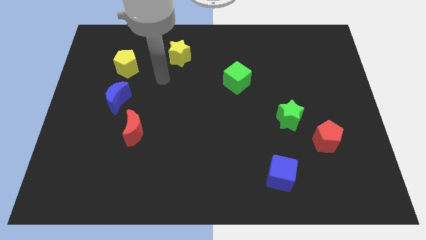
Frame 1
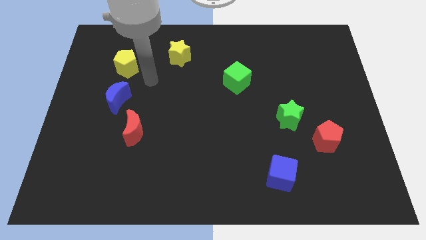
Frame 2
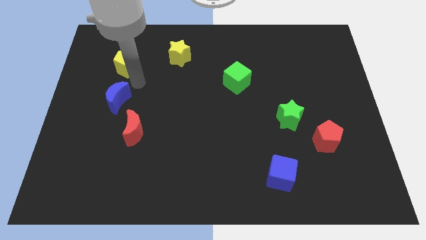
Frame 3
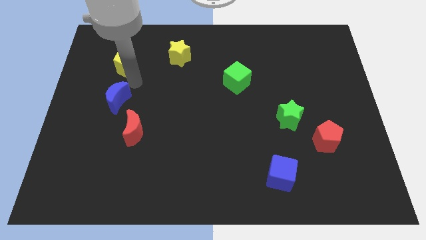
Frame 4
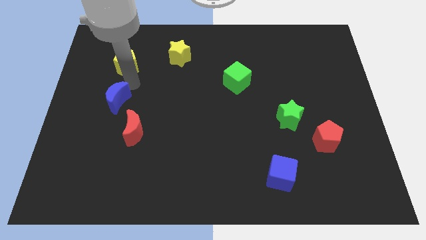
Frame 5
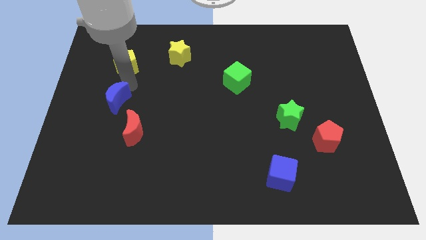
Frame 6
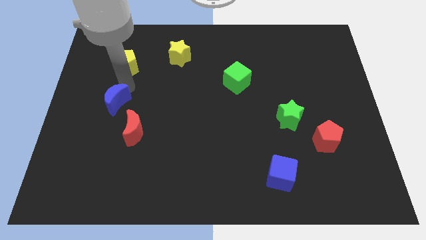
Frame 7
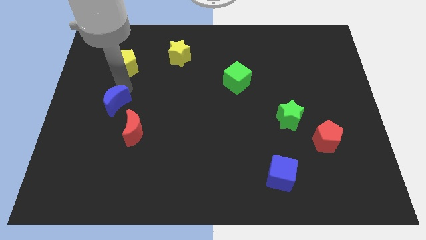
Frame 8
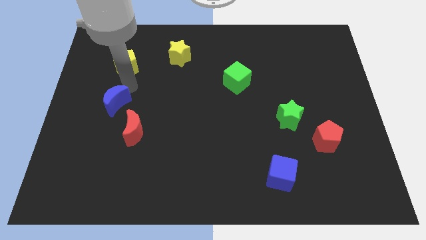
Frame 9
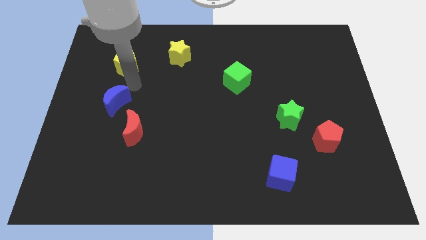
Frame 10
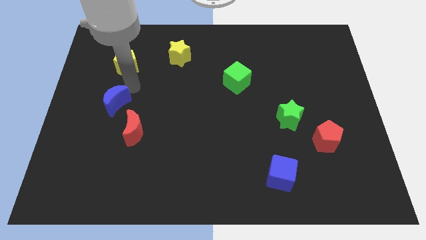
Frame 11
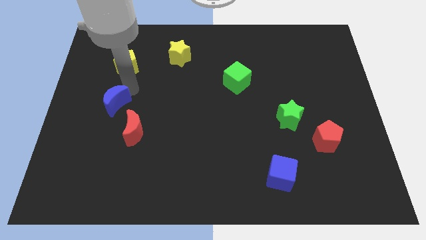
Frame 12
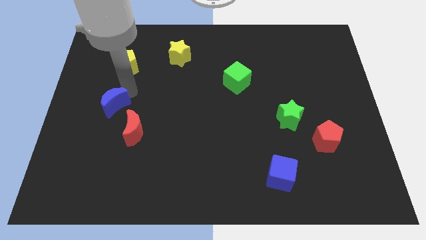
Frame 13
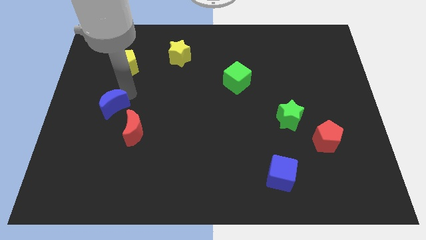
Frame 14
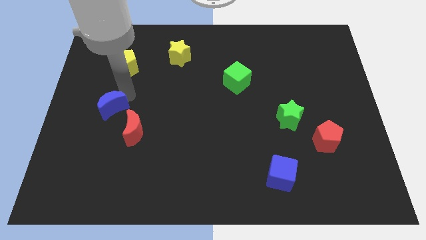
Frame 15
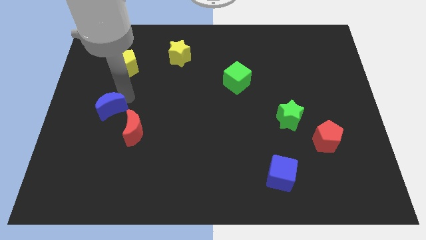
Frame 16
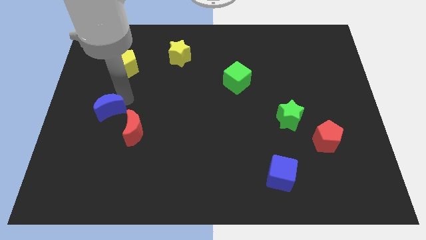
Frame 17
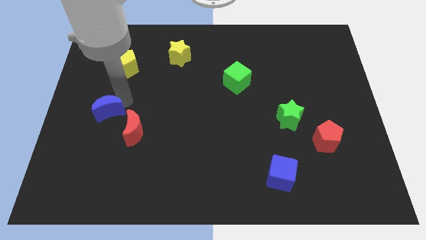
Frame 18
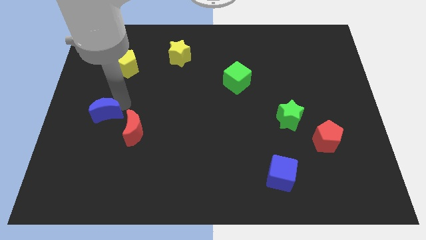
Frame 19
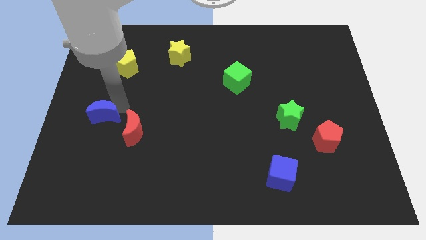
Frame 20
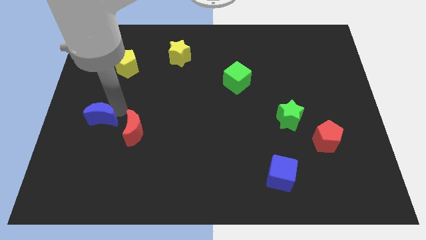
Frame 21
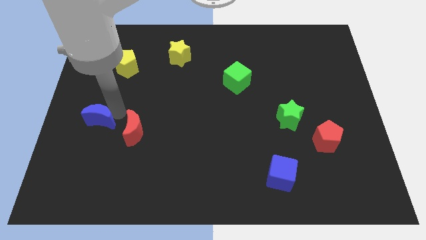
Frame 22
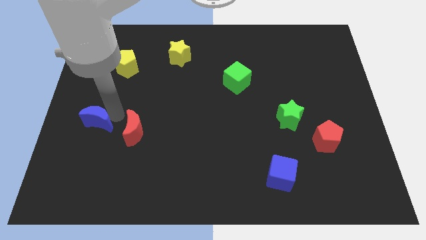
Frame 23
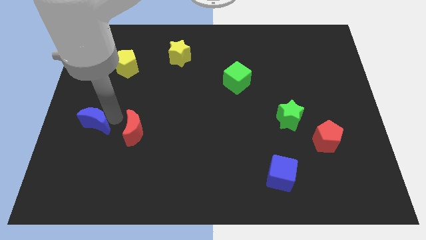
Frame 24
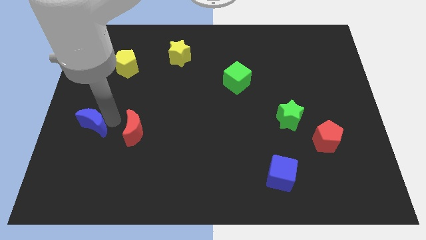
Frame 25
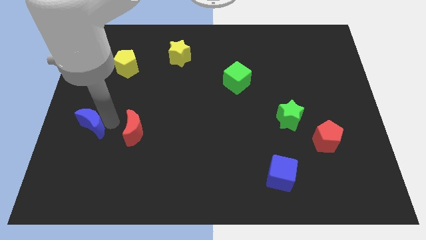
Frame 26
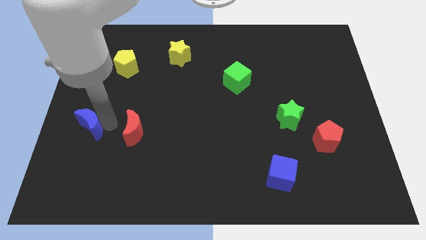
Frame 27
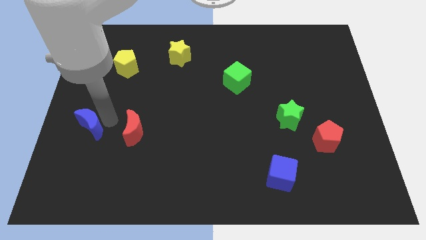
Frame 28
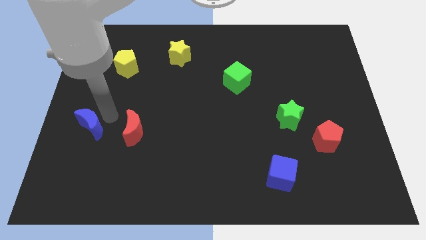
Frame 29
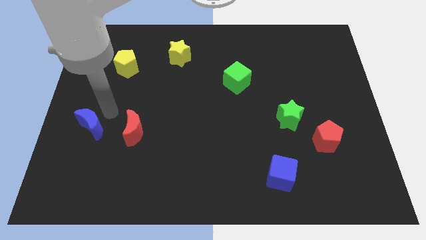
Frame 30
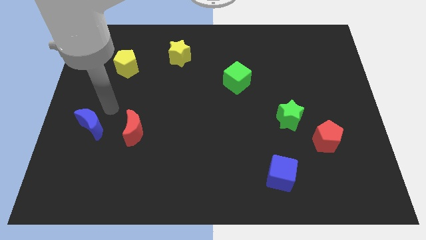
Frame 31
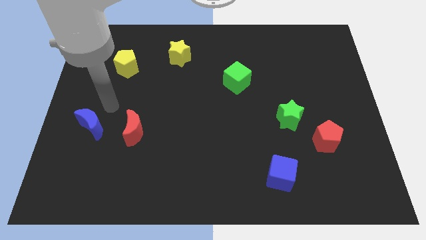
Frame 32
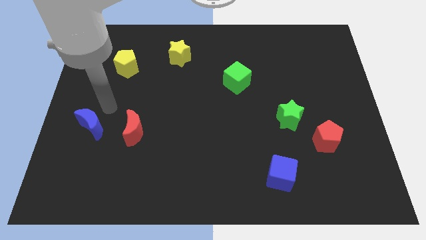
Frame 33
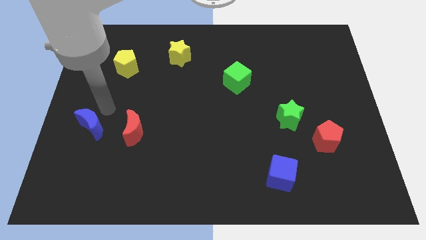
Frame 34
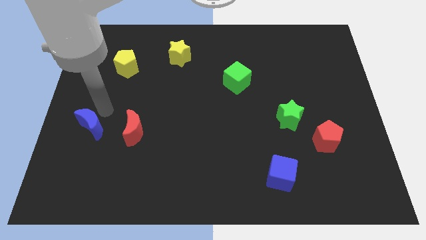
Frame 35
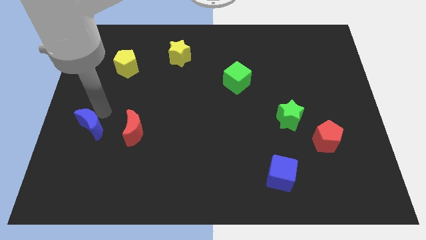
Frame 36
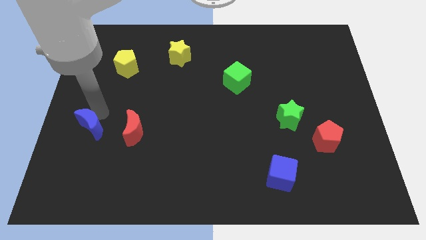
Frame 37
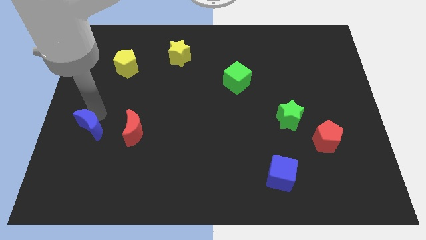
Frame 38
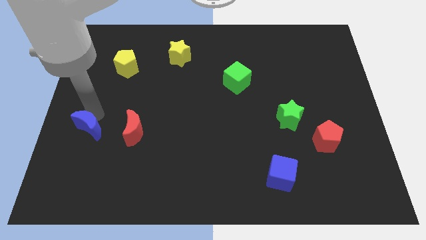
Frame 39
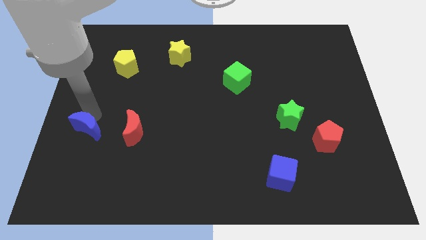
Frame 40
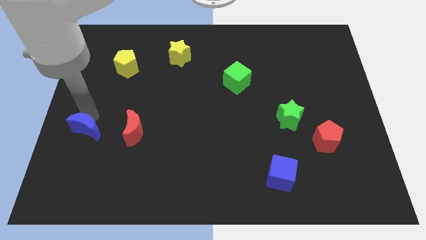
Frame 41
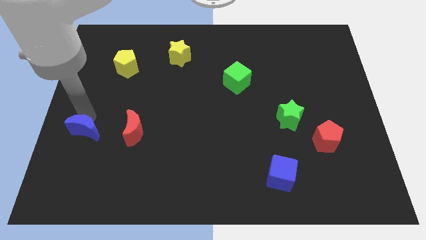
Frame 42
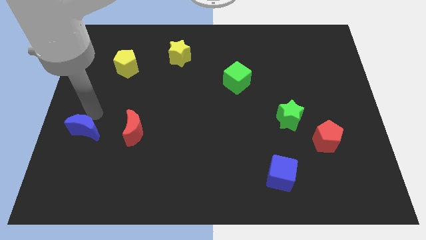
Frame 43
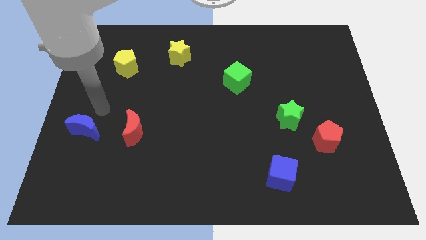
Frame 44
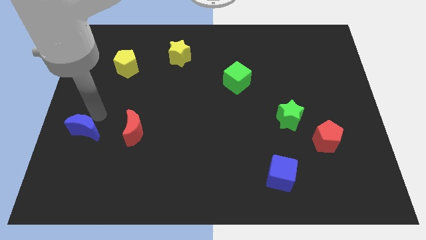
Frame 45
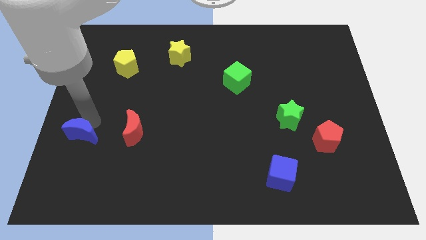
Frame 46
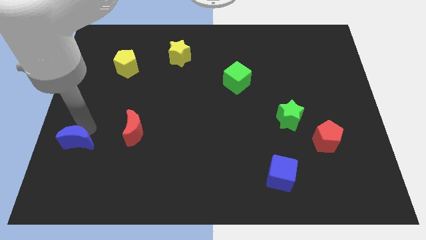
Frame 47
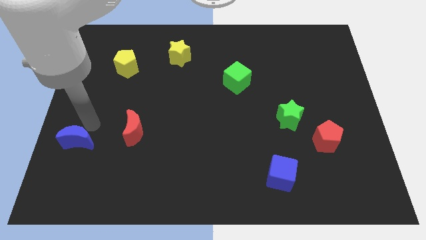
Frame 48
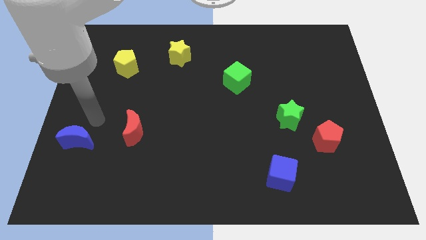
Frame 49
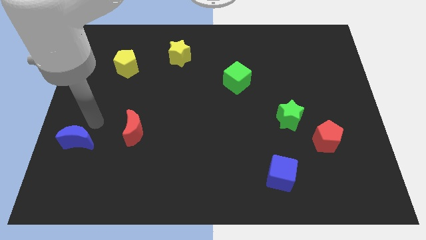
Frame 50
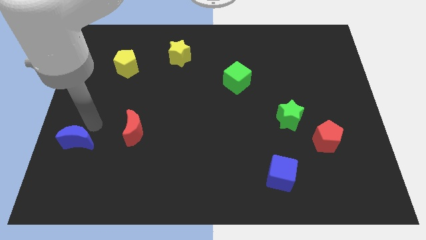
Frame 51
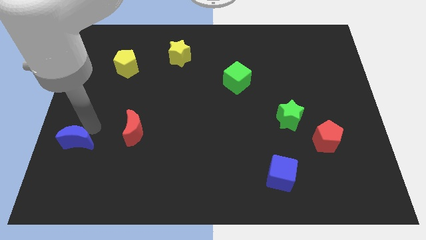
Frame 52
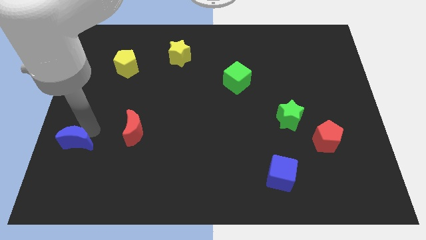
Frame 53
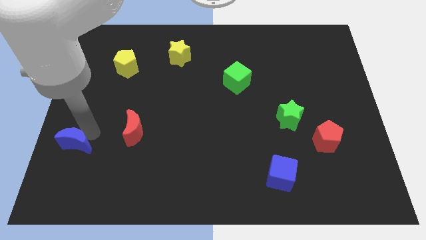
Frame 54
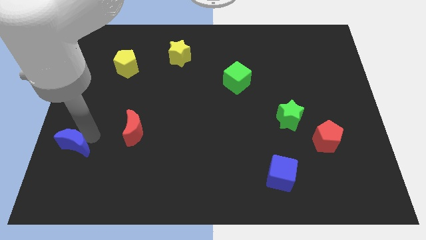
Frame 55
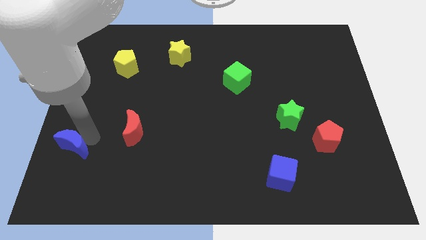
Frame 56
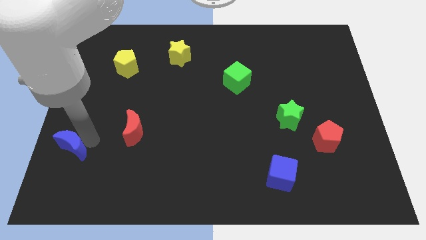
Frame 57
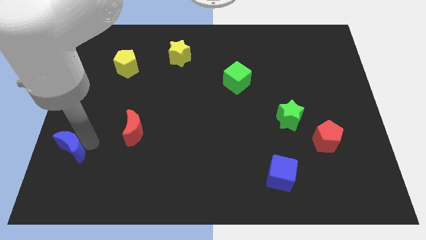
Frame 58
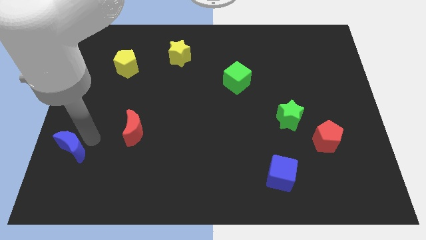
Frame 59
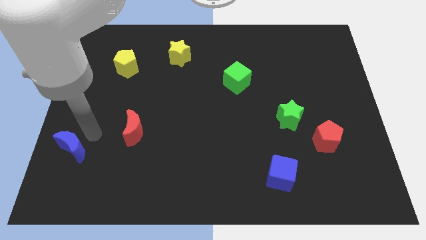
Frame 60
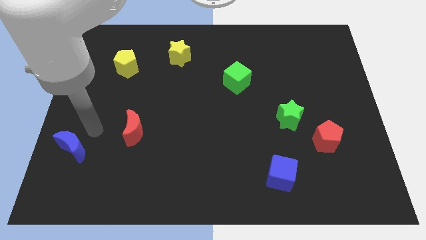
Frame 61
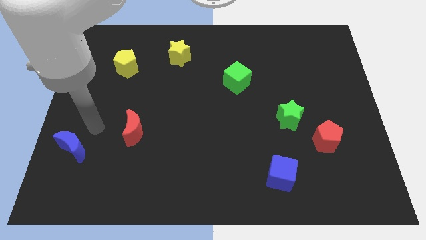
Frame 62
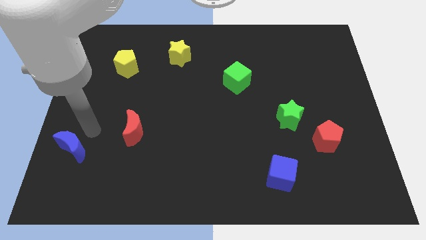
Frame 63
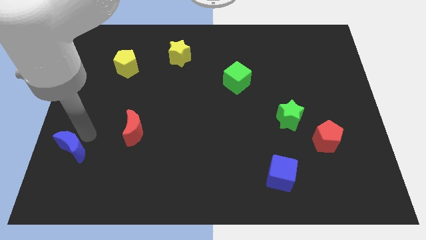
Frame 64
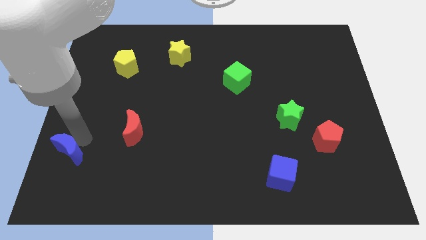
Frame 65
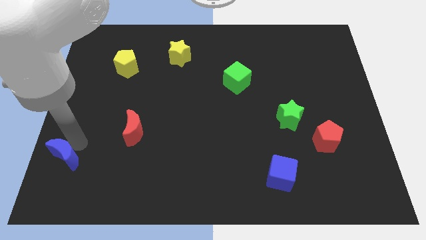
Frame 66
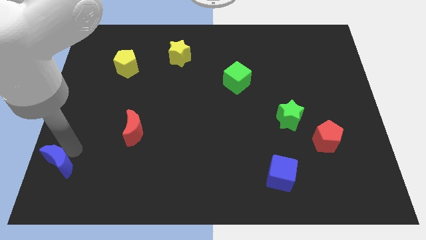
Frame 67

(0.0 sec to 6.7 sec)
move the blue moon to the bottom left corner
